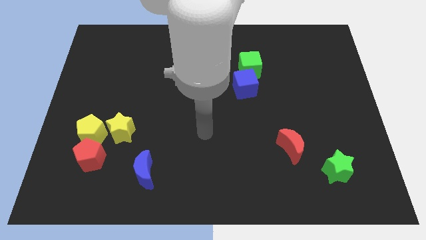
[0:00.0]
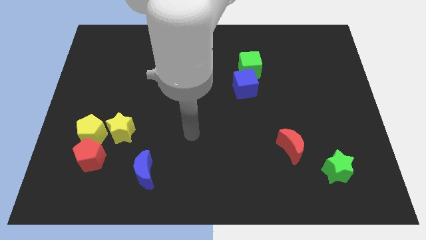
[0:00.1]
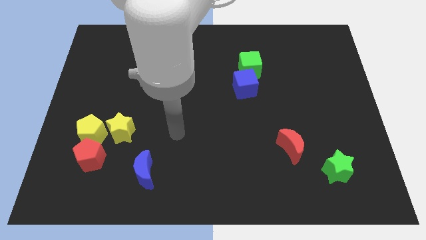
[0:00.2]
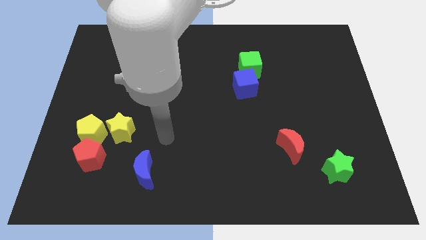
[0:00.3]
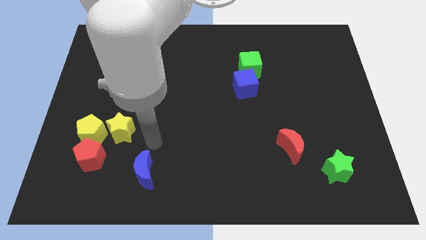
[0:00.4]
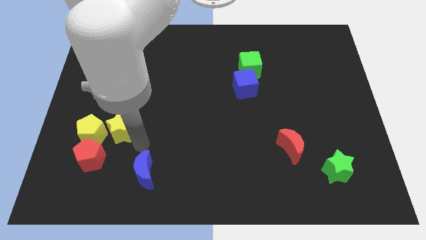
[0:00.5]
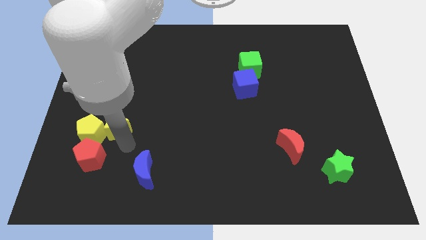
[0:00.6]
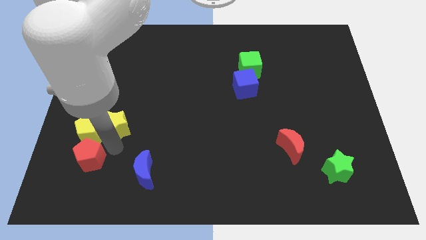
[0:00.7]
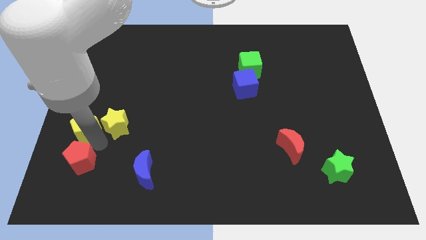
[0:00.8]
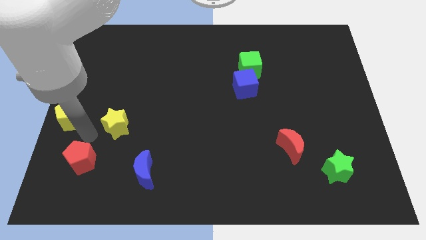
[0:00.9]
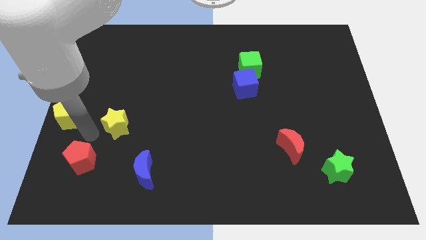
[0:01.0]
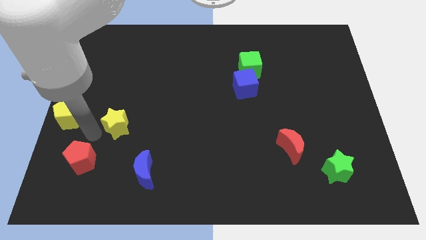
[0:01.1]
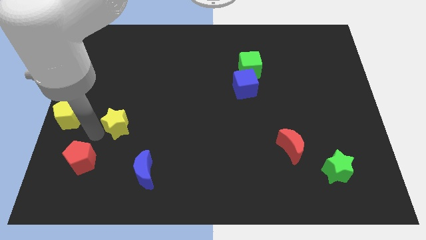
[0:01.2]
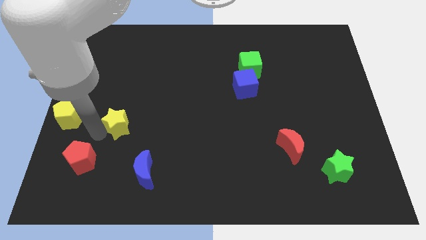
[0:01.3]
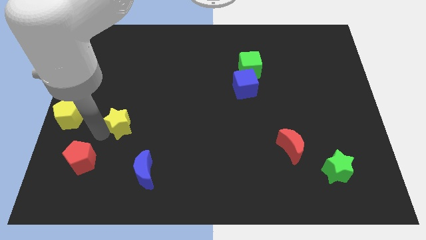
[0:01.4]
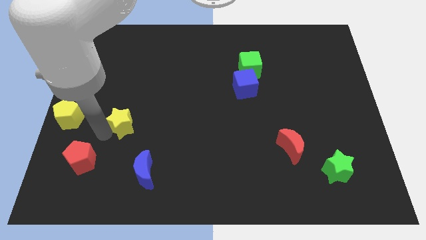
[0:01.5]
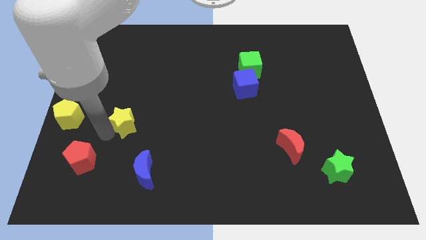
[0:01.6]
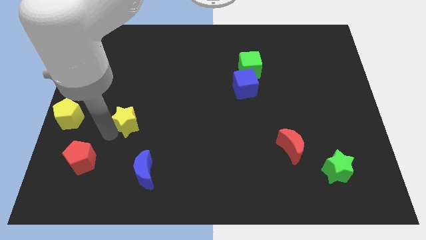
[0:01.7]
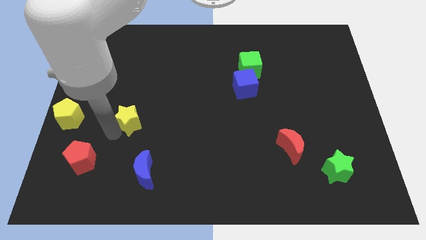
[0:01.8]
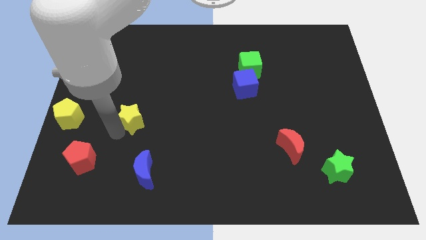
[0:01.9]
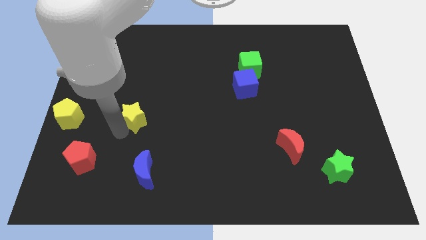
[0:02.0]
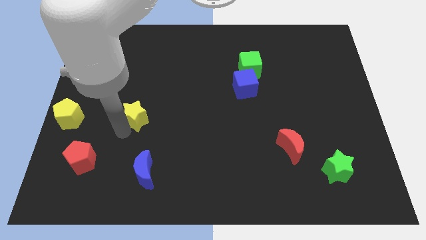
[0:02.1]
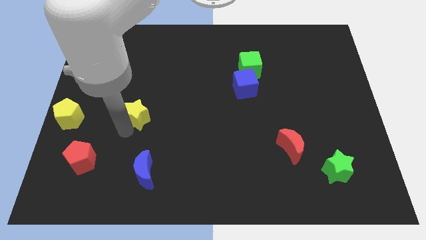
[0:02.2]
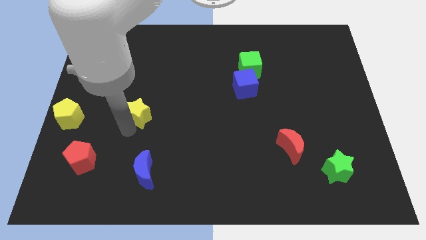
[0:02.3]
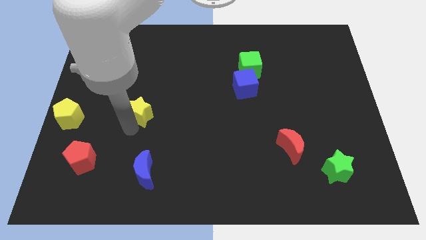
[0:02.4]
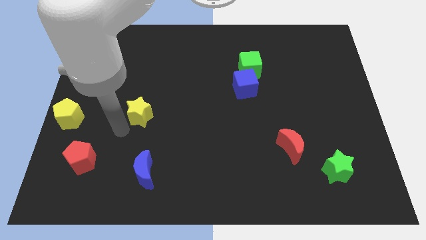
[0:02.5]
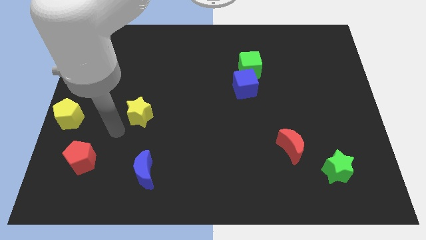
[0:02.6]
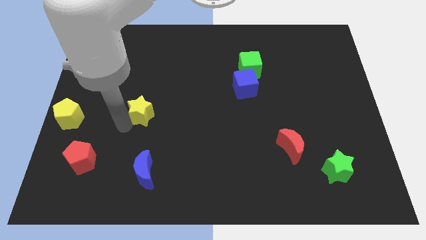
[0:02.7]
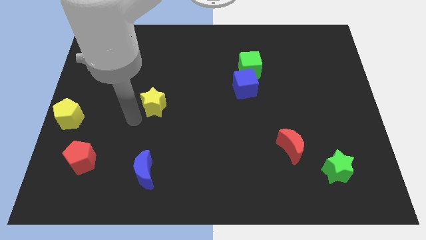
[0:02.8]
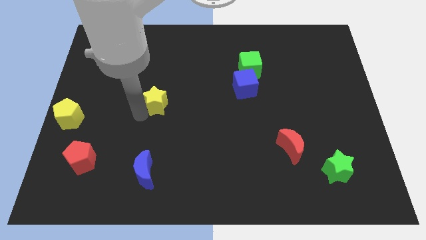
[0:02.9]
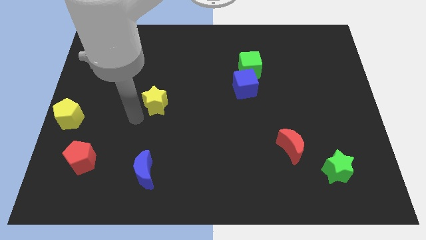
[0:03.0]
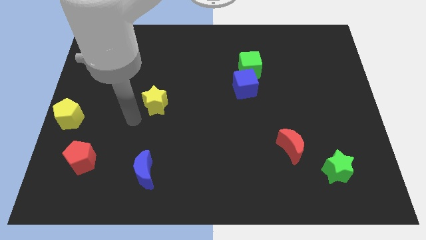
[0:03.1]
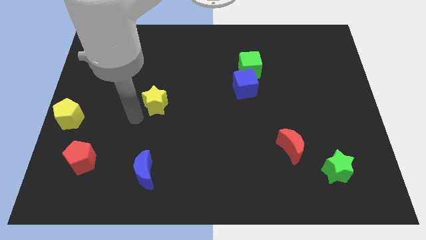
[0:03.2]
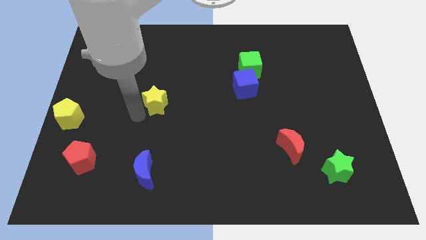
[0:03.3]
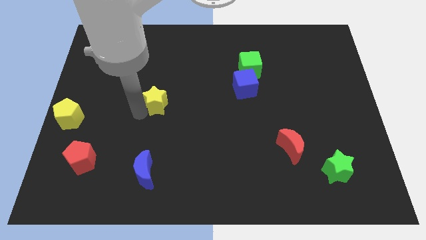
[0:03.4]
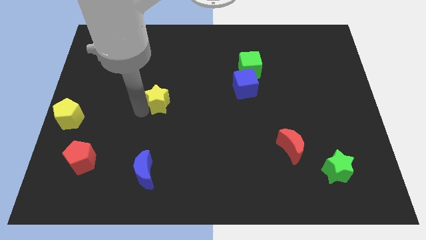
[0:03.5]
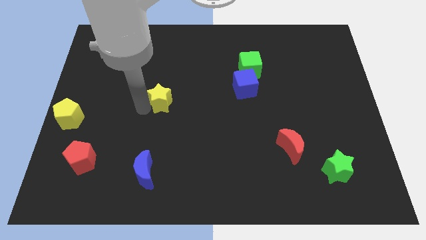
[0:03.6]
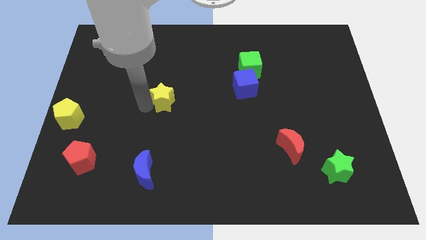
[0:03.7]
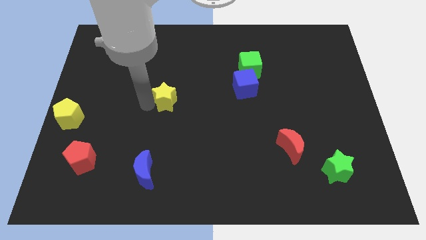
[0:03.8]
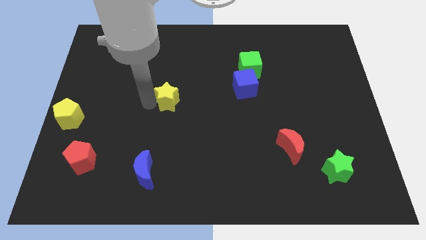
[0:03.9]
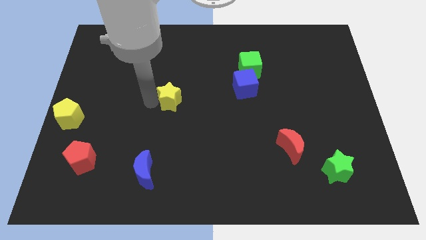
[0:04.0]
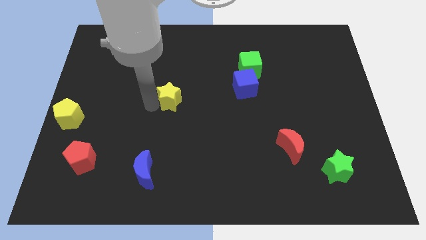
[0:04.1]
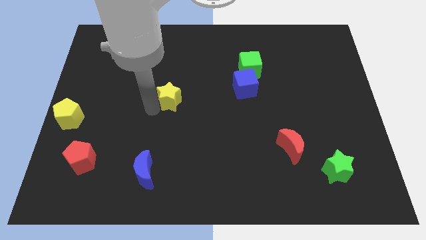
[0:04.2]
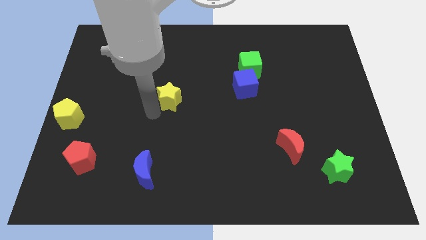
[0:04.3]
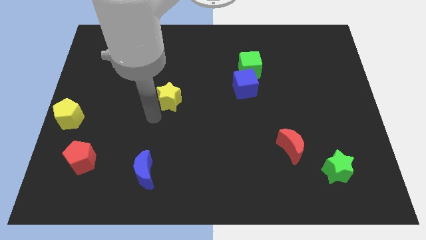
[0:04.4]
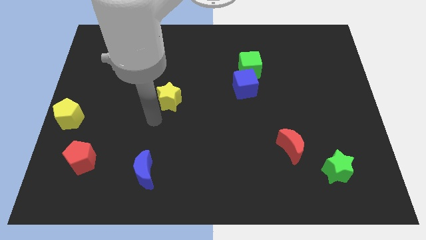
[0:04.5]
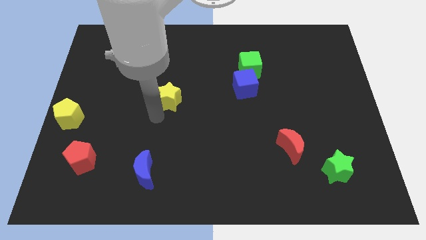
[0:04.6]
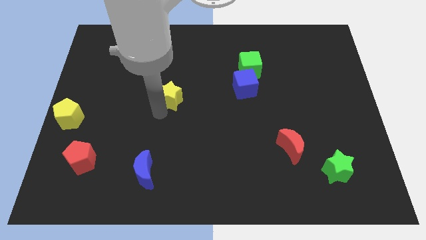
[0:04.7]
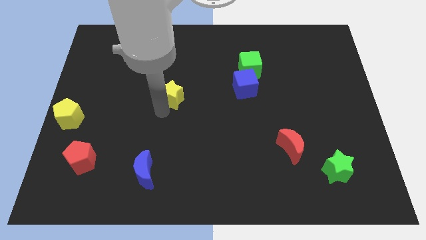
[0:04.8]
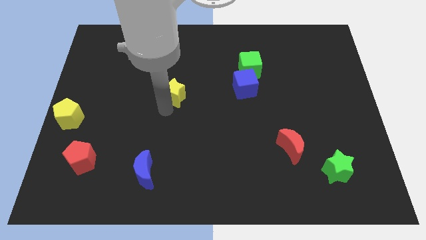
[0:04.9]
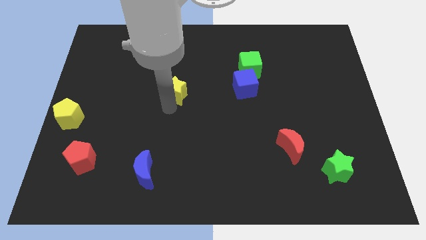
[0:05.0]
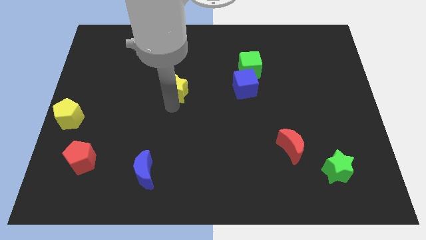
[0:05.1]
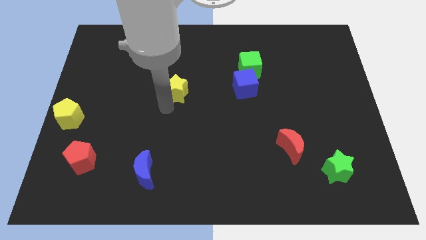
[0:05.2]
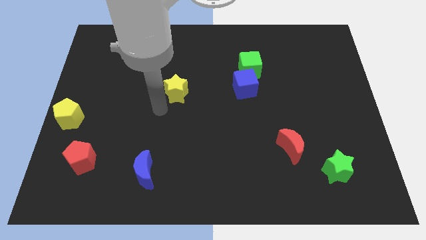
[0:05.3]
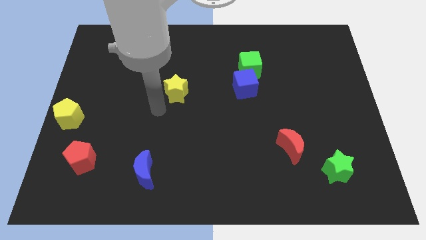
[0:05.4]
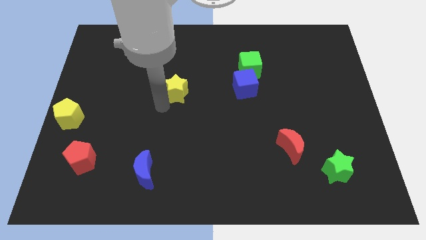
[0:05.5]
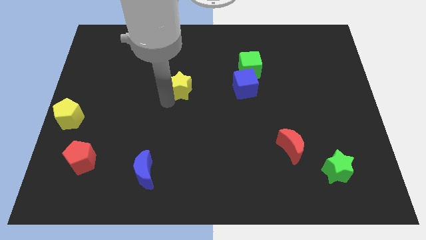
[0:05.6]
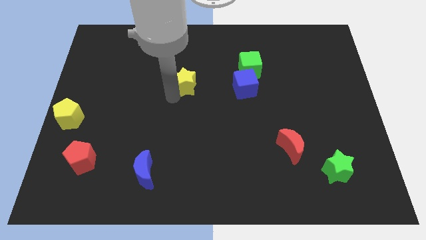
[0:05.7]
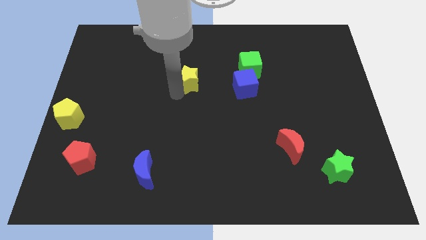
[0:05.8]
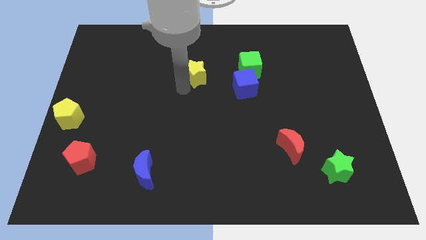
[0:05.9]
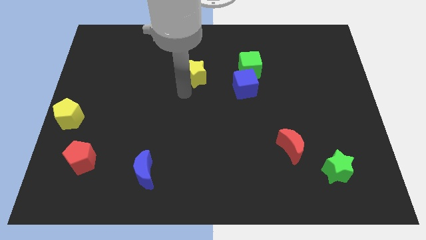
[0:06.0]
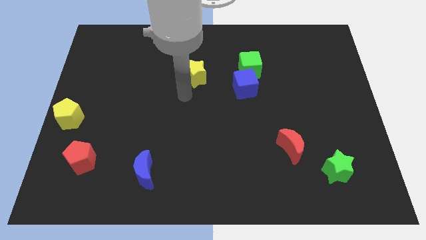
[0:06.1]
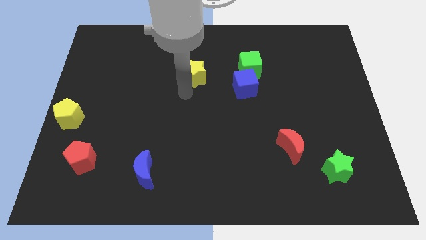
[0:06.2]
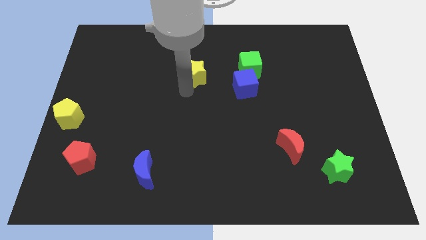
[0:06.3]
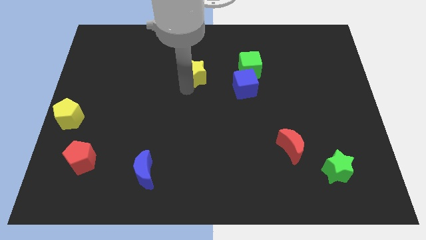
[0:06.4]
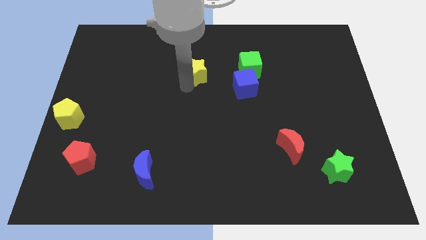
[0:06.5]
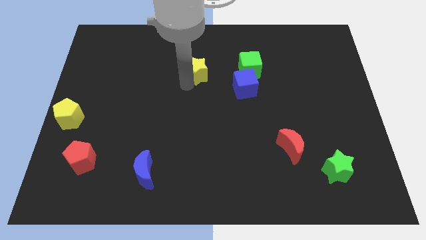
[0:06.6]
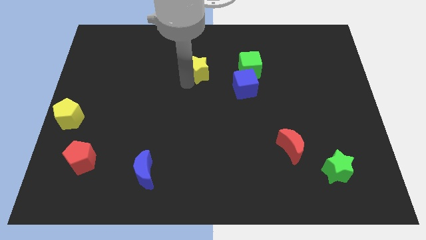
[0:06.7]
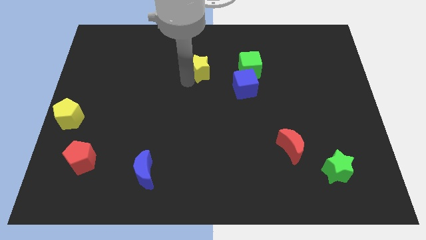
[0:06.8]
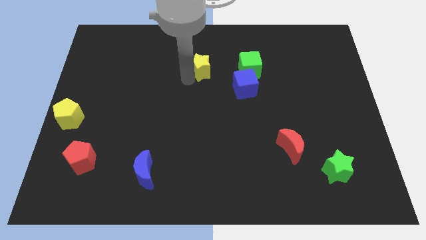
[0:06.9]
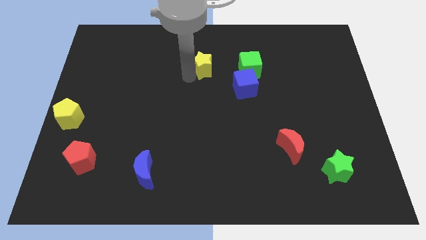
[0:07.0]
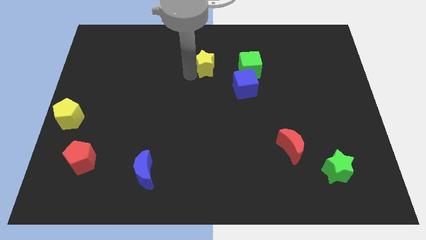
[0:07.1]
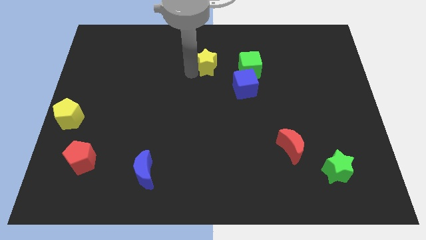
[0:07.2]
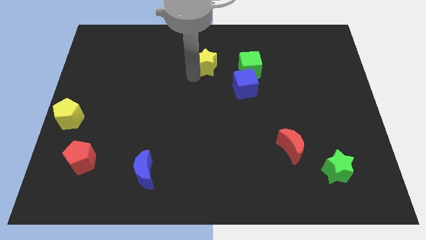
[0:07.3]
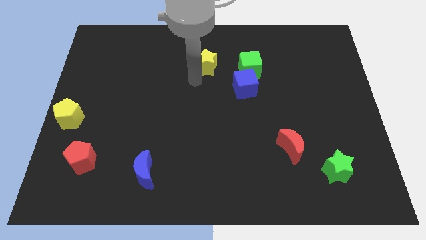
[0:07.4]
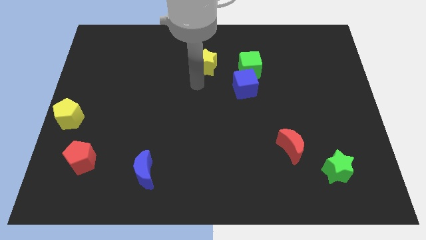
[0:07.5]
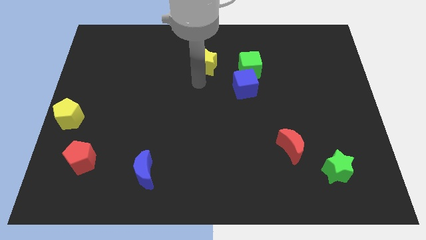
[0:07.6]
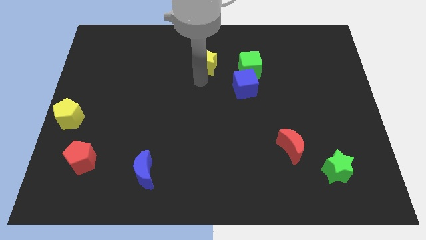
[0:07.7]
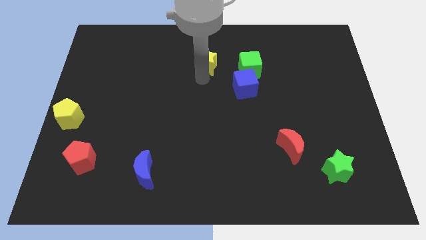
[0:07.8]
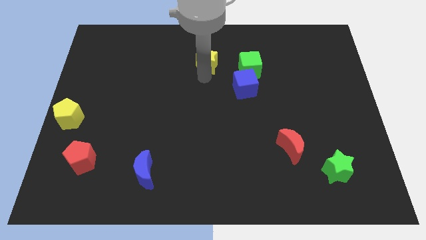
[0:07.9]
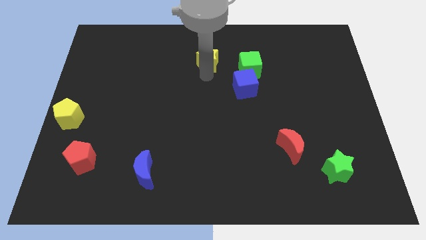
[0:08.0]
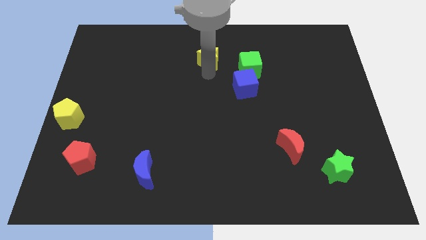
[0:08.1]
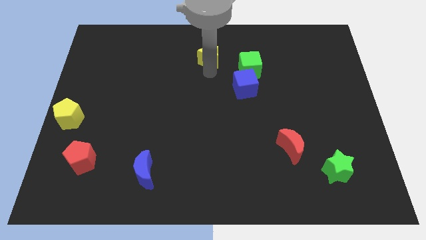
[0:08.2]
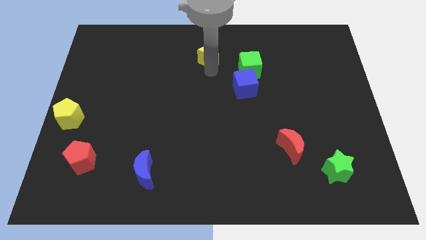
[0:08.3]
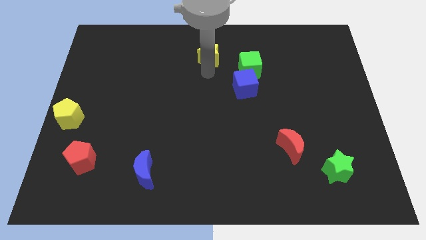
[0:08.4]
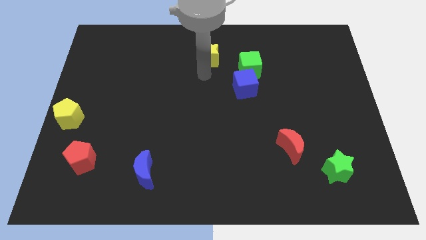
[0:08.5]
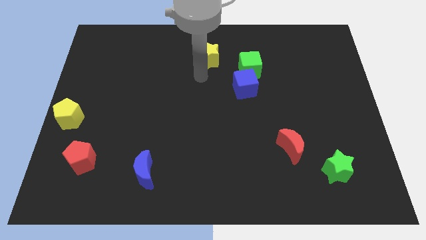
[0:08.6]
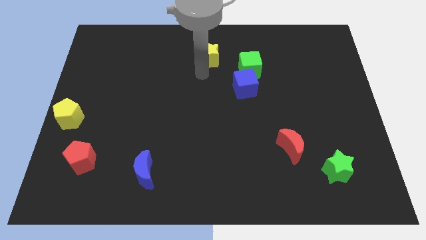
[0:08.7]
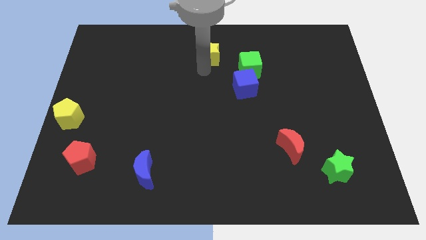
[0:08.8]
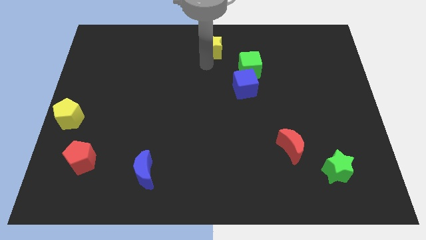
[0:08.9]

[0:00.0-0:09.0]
slide the yellow star to the top side
